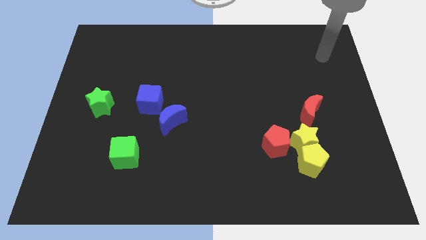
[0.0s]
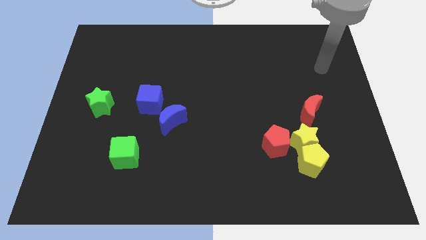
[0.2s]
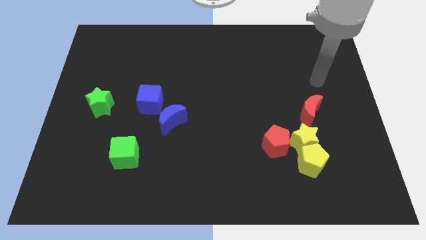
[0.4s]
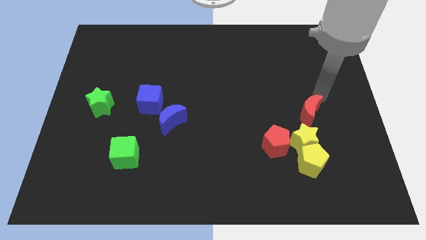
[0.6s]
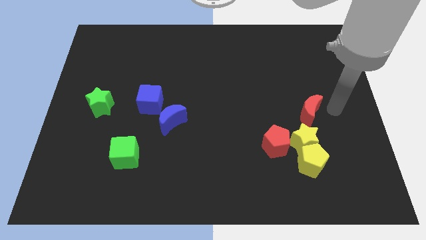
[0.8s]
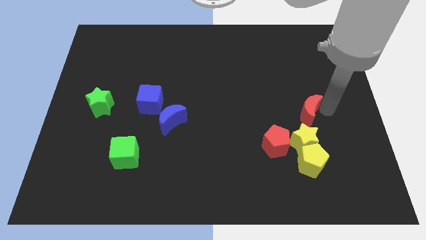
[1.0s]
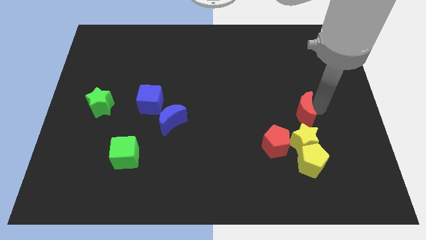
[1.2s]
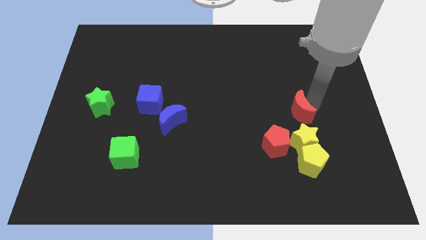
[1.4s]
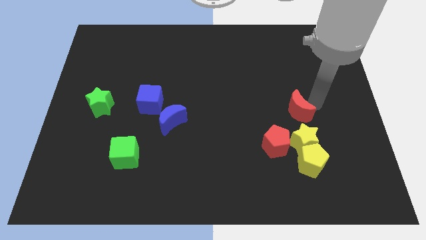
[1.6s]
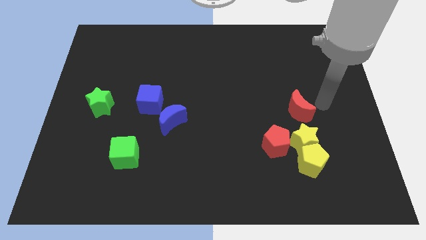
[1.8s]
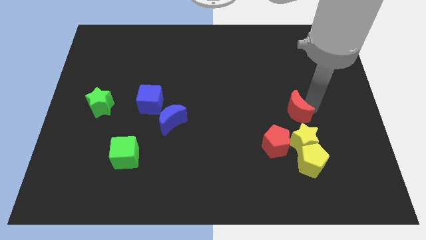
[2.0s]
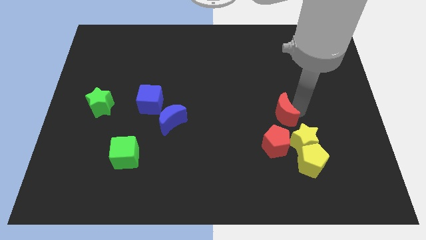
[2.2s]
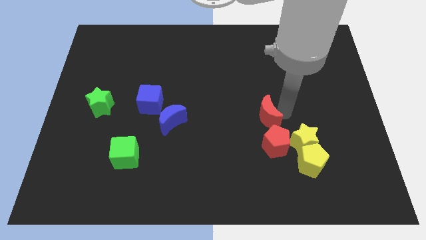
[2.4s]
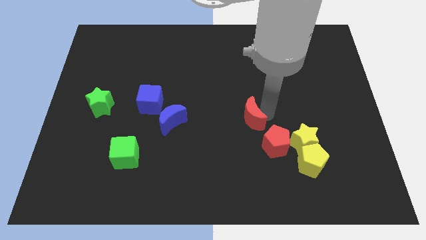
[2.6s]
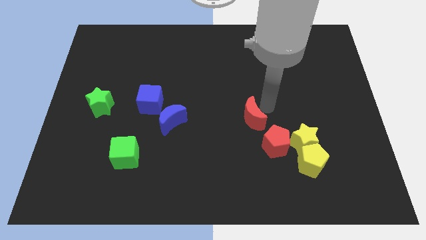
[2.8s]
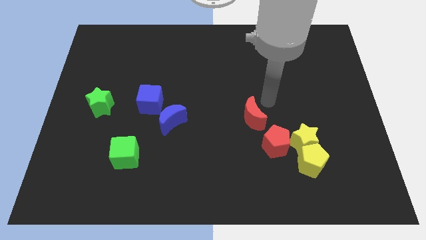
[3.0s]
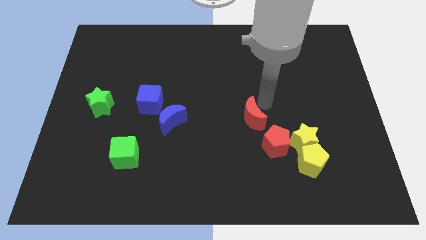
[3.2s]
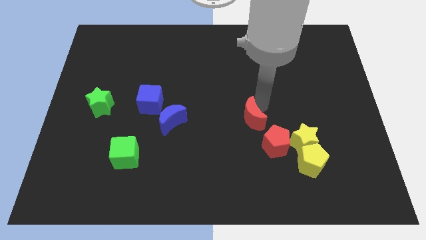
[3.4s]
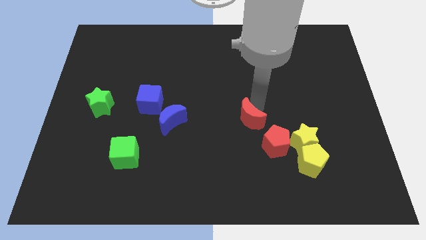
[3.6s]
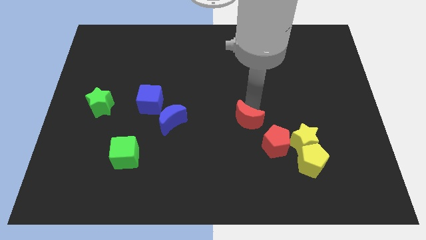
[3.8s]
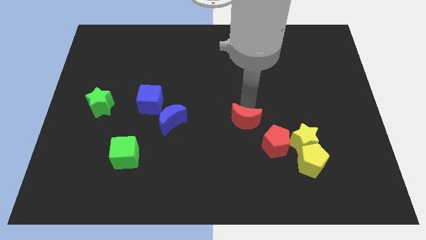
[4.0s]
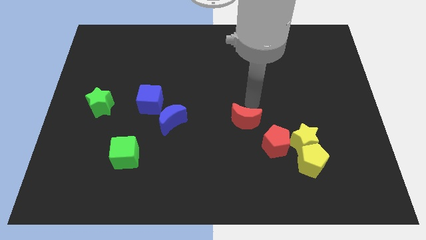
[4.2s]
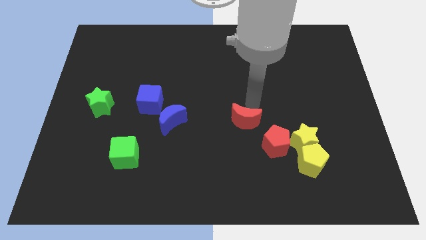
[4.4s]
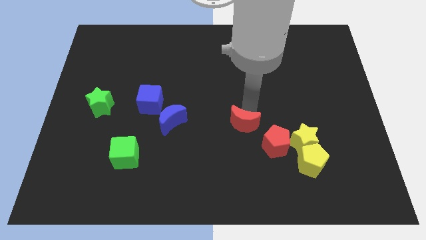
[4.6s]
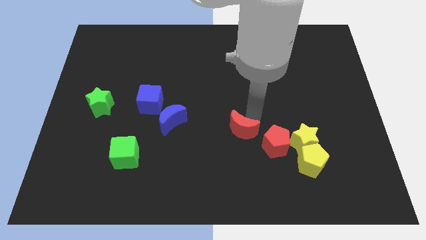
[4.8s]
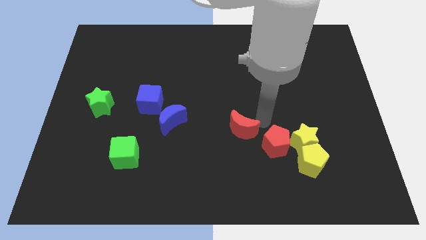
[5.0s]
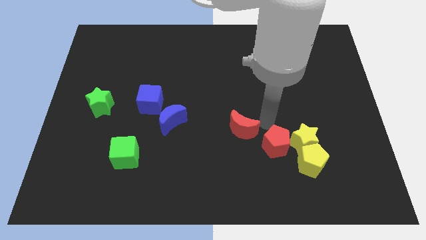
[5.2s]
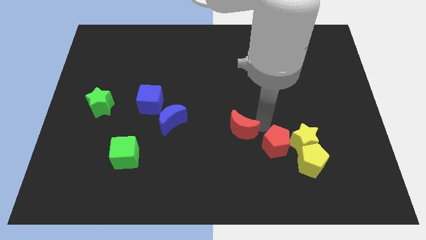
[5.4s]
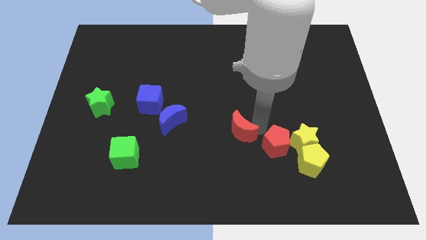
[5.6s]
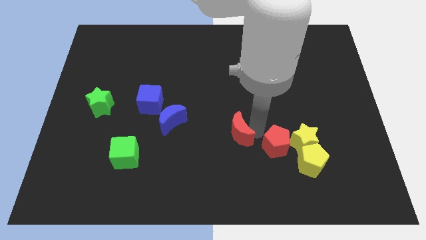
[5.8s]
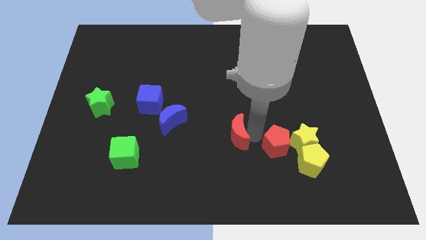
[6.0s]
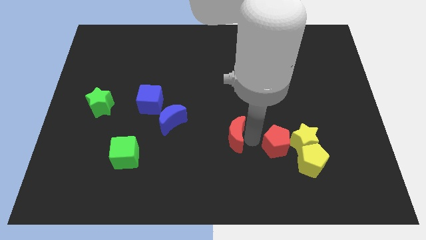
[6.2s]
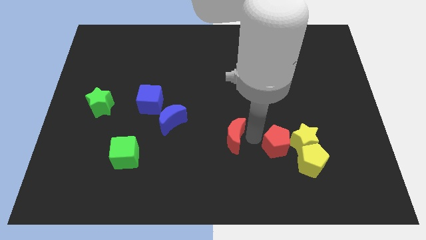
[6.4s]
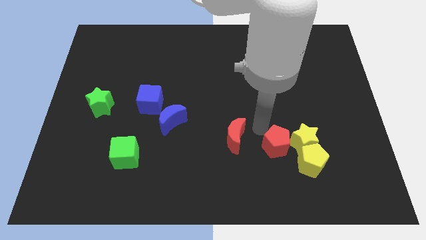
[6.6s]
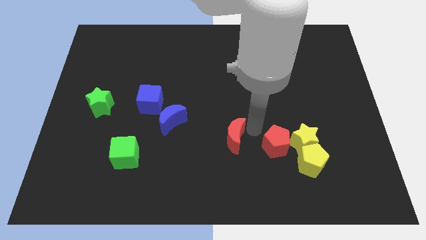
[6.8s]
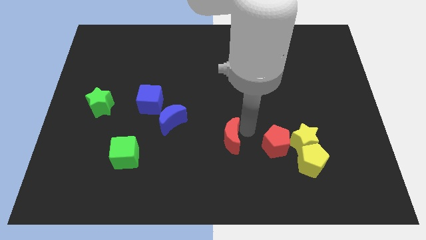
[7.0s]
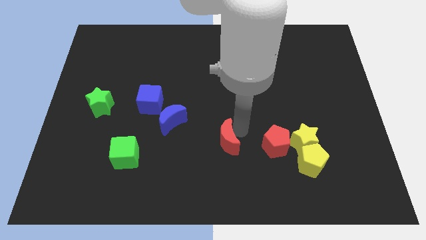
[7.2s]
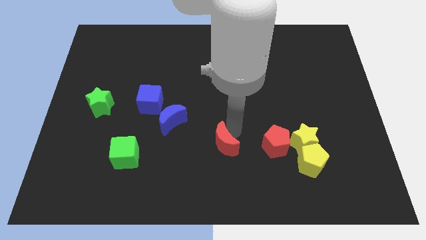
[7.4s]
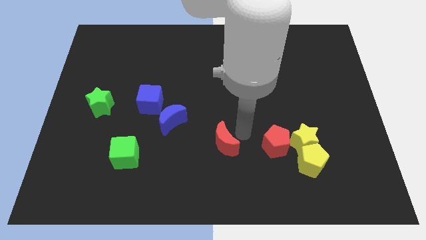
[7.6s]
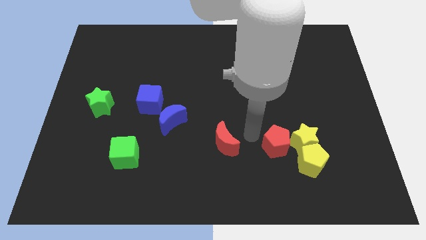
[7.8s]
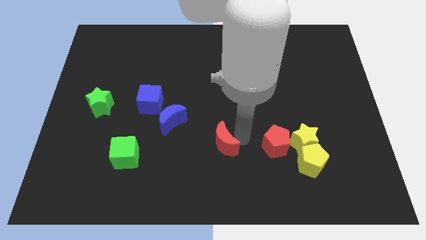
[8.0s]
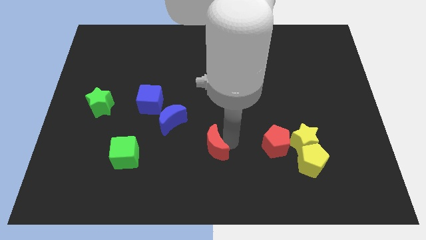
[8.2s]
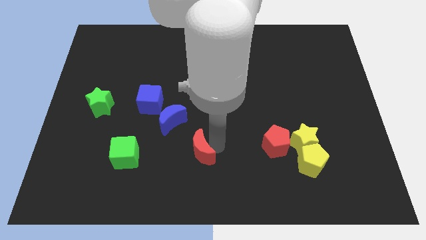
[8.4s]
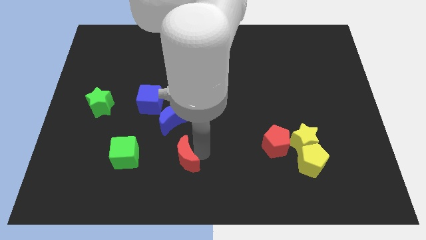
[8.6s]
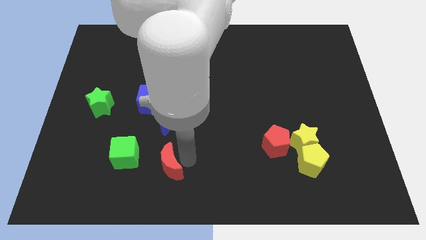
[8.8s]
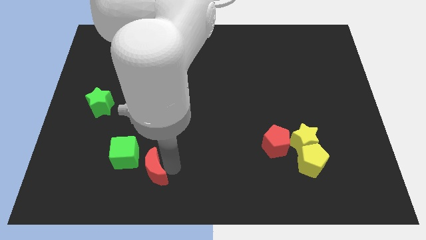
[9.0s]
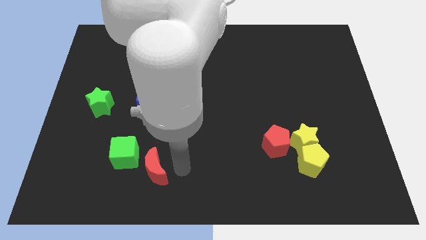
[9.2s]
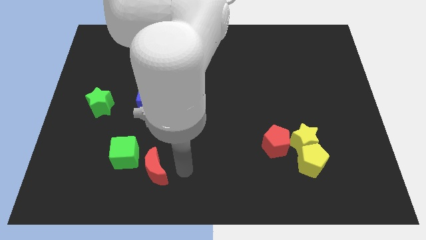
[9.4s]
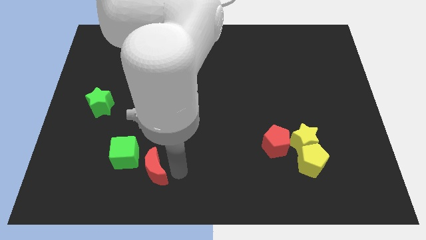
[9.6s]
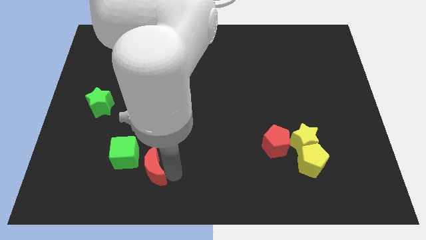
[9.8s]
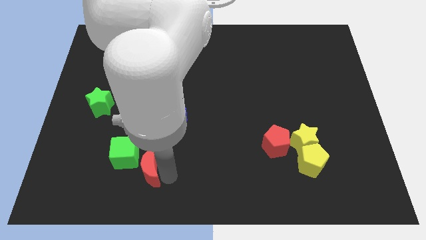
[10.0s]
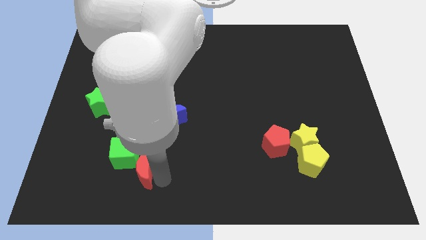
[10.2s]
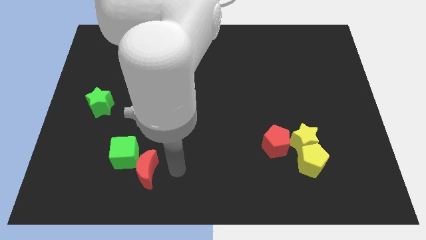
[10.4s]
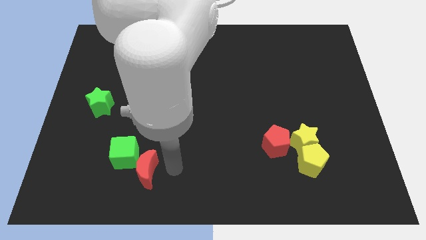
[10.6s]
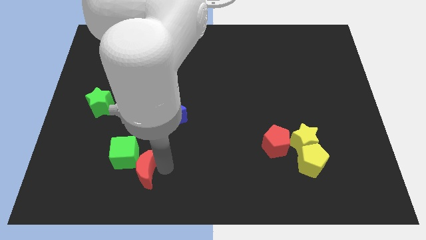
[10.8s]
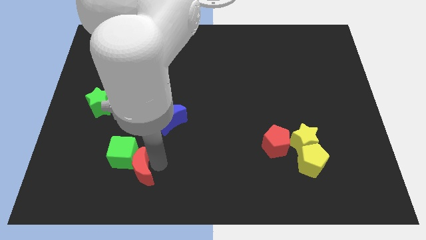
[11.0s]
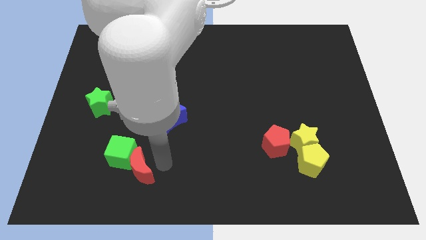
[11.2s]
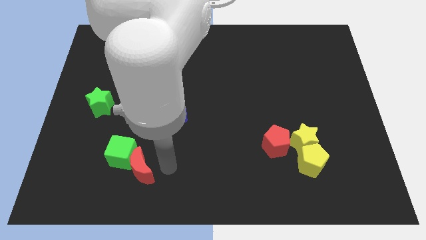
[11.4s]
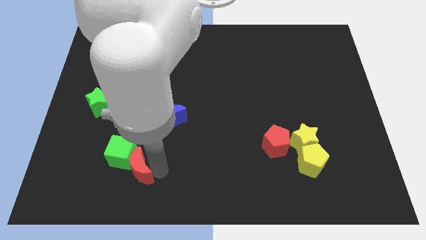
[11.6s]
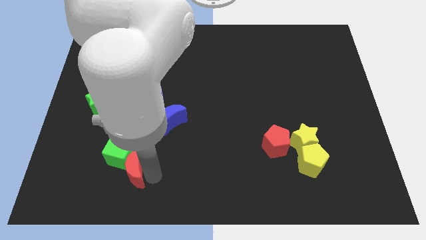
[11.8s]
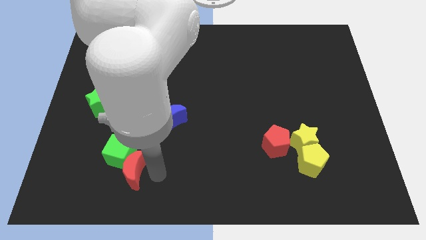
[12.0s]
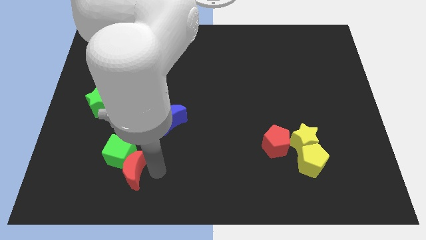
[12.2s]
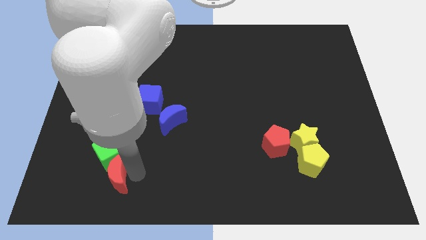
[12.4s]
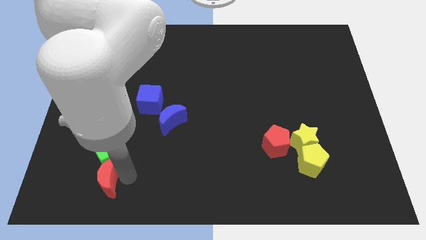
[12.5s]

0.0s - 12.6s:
slide the red moon to the bottom left side of the green cube

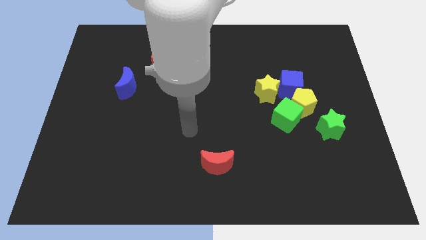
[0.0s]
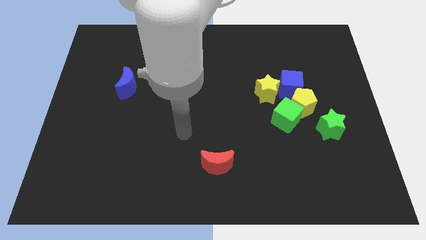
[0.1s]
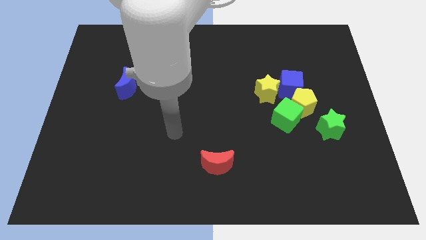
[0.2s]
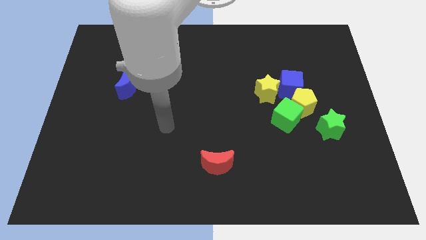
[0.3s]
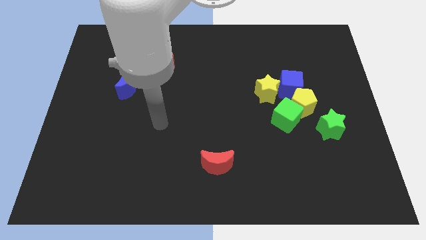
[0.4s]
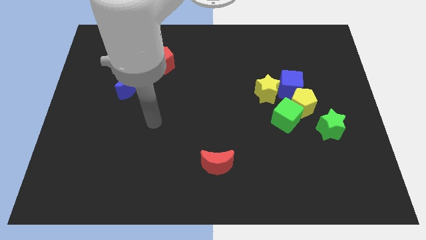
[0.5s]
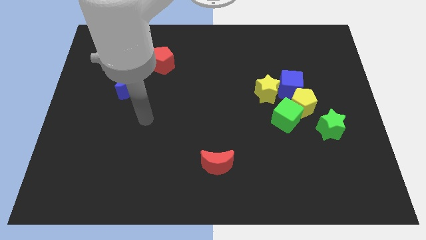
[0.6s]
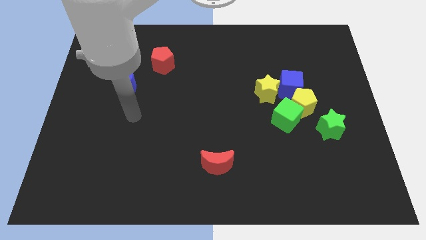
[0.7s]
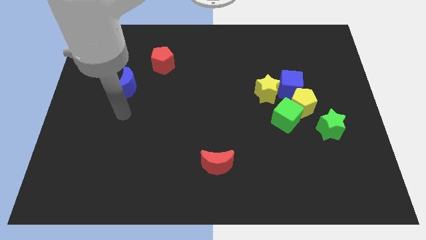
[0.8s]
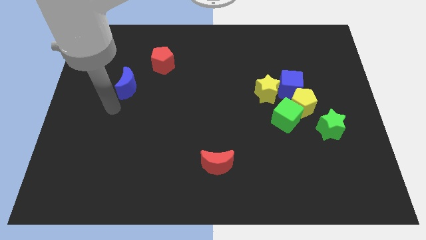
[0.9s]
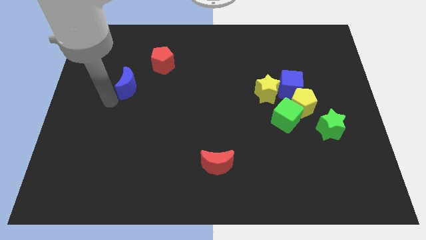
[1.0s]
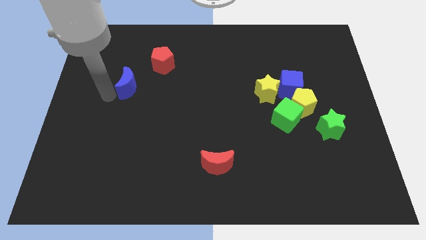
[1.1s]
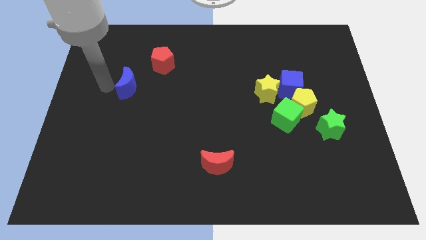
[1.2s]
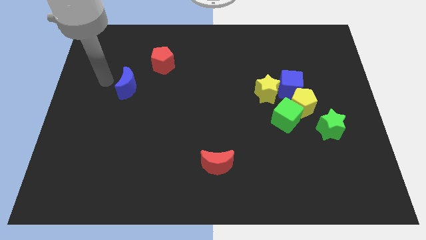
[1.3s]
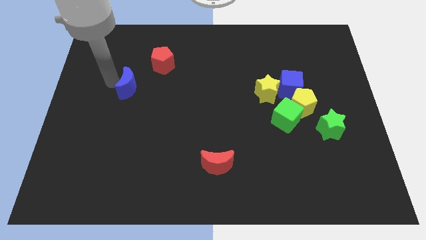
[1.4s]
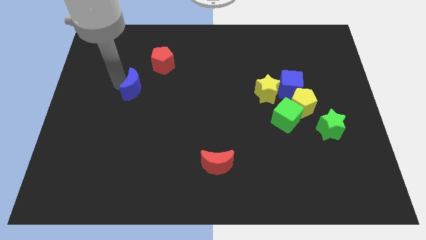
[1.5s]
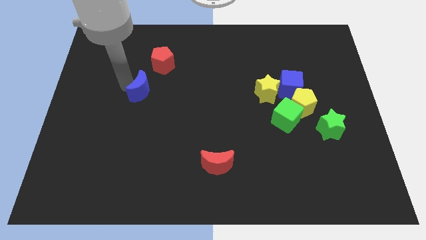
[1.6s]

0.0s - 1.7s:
move the blue moon to the bottom side of the red pentagon
